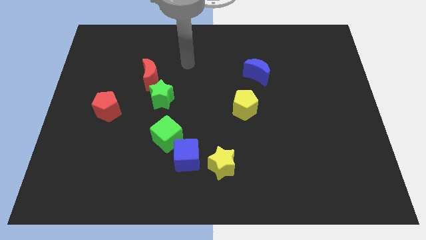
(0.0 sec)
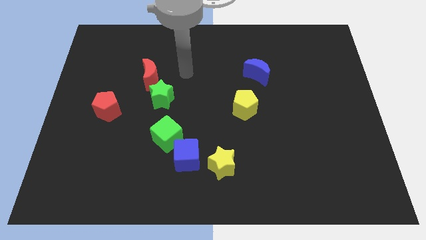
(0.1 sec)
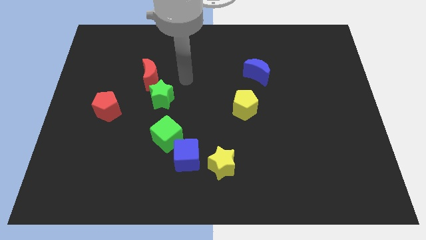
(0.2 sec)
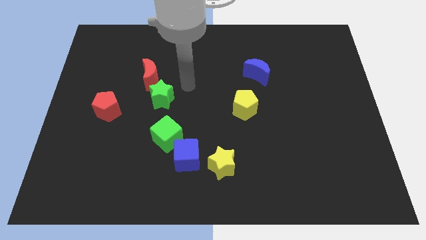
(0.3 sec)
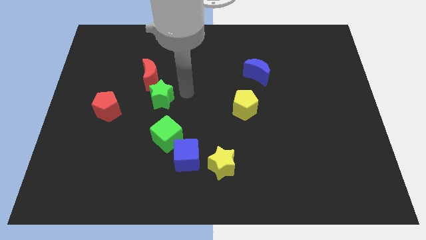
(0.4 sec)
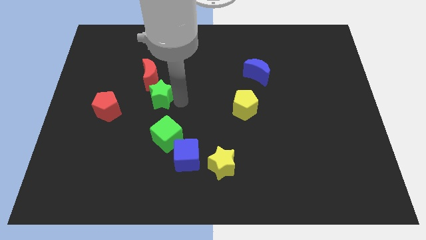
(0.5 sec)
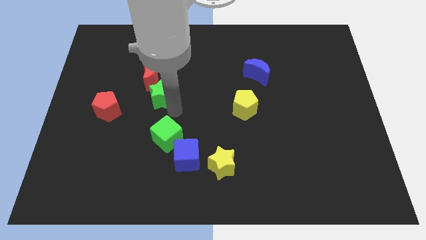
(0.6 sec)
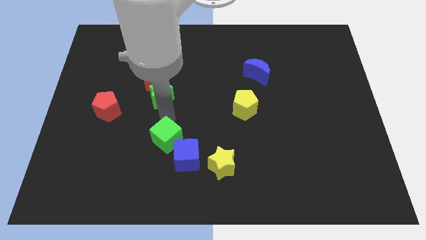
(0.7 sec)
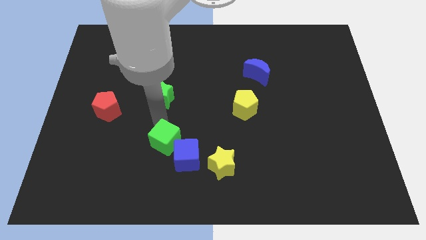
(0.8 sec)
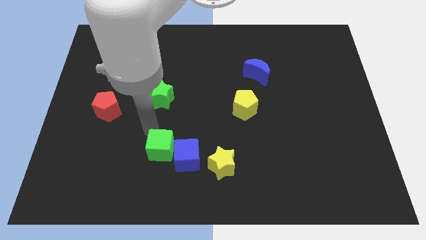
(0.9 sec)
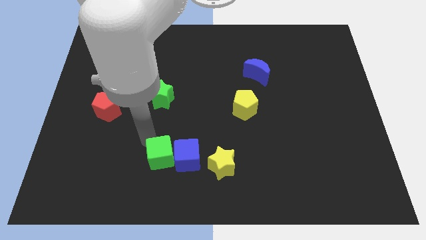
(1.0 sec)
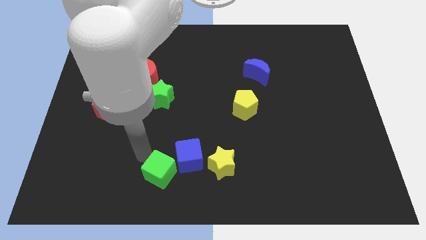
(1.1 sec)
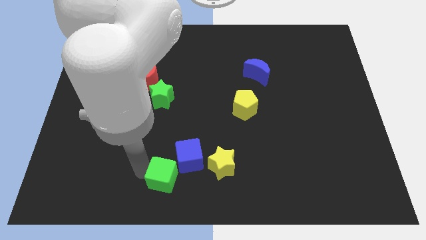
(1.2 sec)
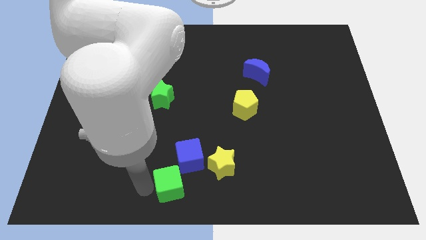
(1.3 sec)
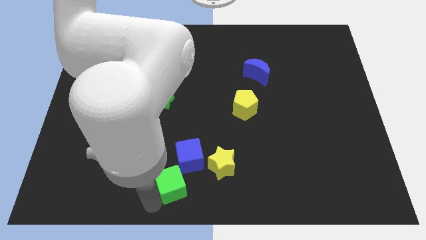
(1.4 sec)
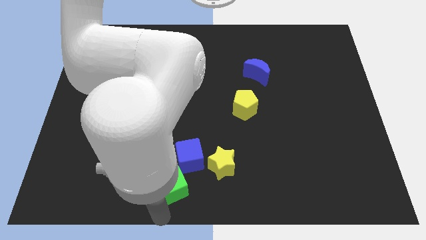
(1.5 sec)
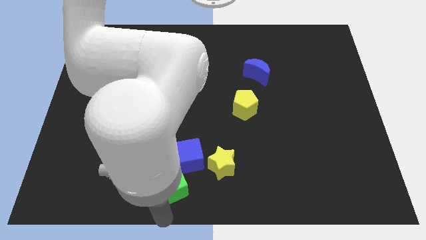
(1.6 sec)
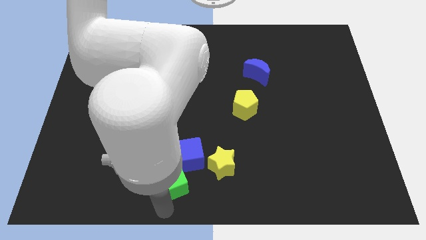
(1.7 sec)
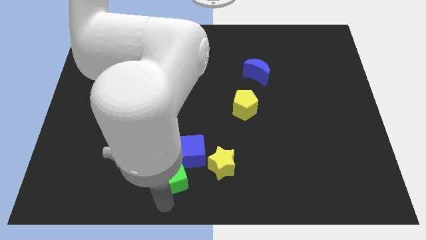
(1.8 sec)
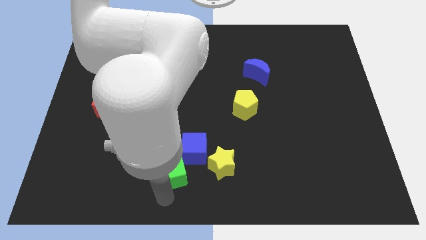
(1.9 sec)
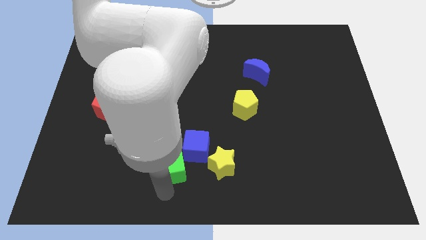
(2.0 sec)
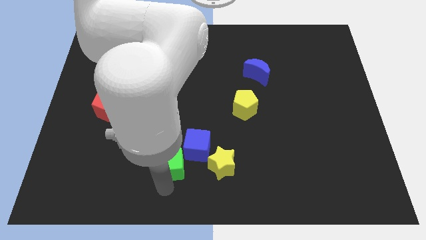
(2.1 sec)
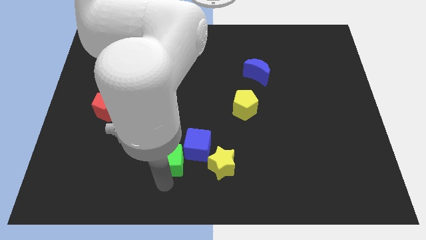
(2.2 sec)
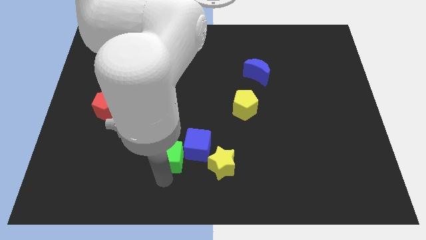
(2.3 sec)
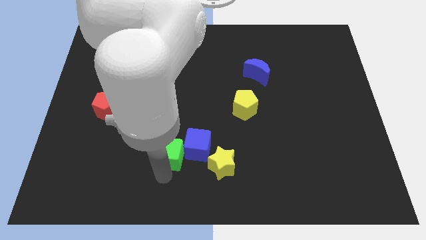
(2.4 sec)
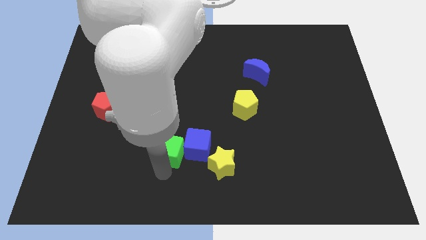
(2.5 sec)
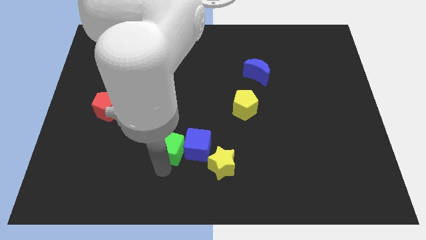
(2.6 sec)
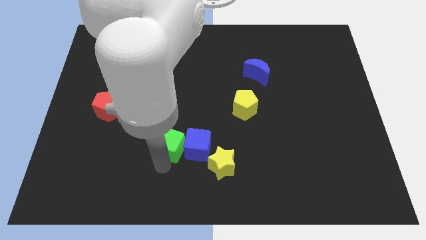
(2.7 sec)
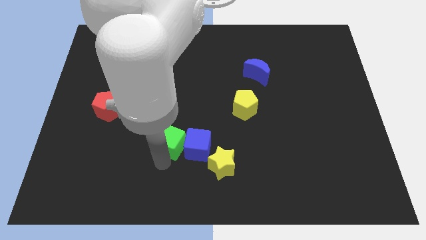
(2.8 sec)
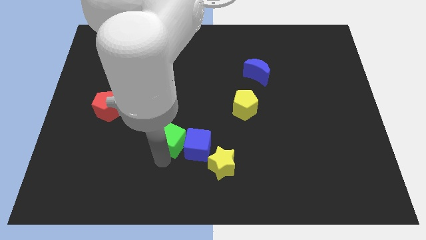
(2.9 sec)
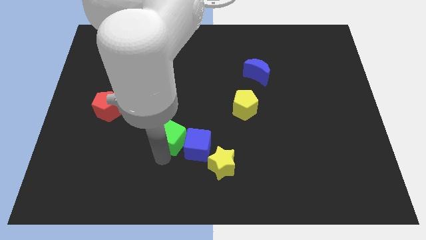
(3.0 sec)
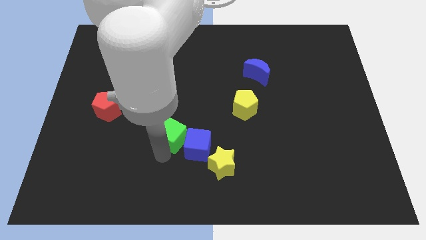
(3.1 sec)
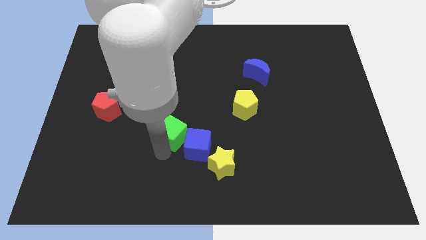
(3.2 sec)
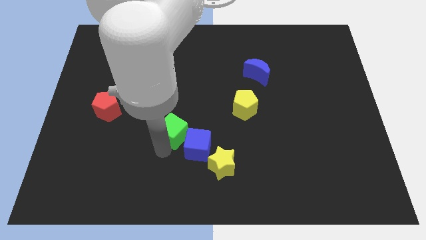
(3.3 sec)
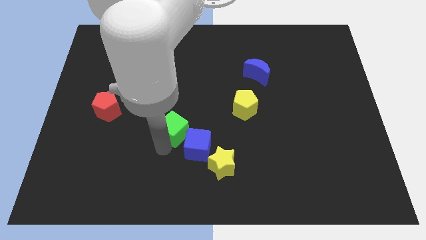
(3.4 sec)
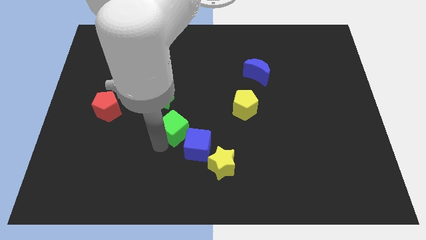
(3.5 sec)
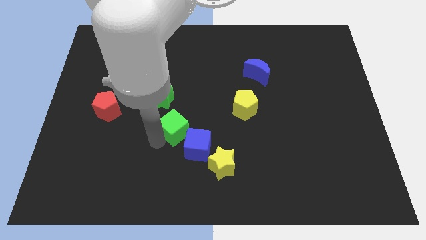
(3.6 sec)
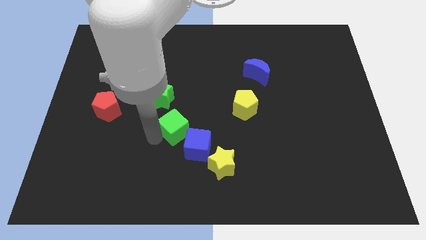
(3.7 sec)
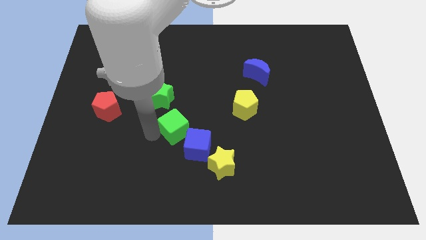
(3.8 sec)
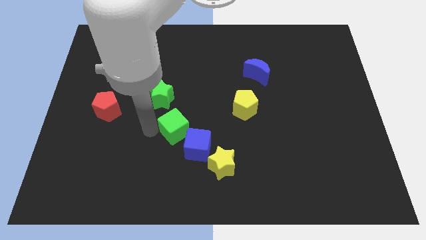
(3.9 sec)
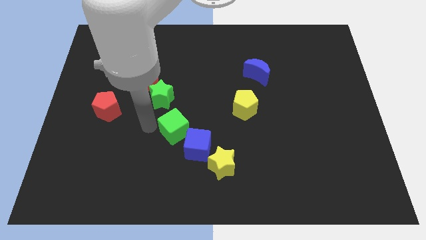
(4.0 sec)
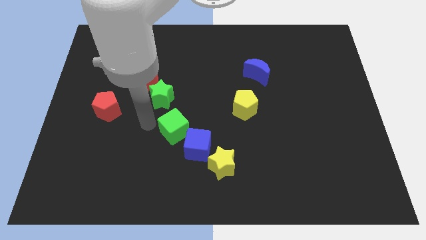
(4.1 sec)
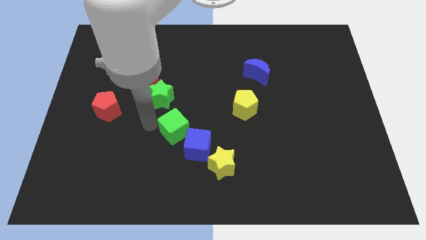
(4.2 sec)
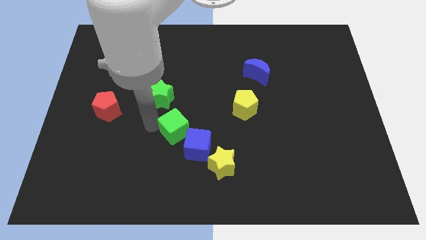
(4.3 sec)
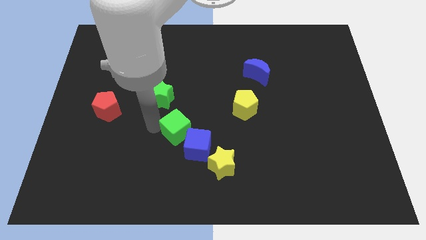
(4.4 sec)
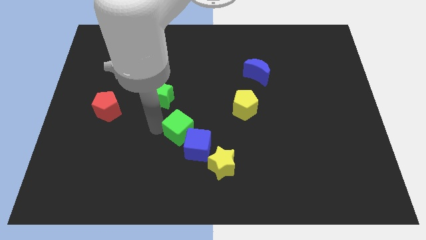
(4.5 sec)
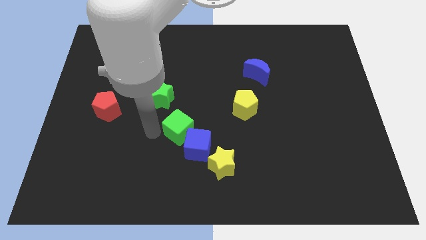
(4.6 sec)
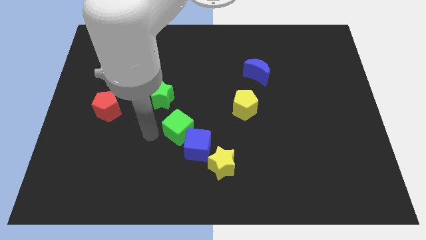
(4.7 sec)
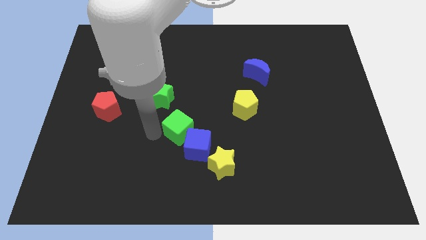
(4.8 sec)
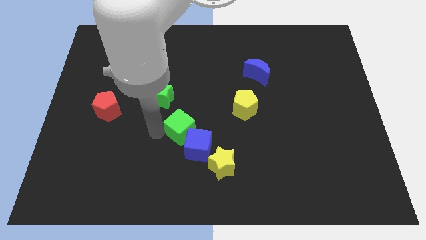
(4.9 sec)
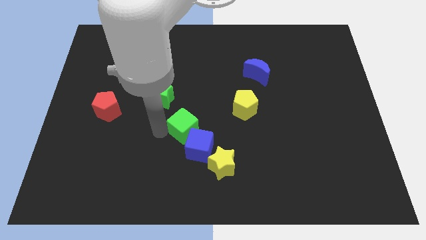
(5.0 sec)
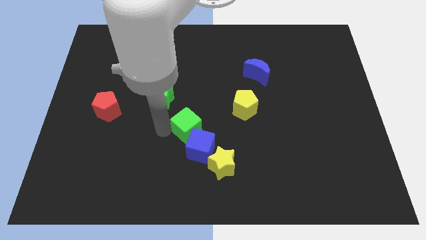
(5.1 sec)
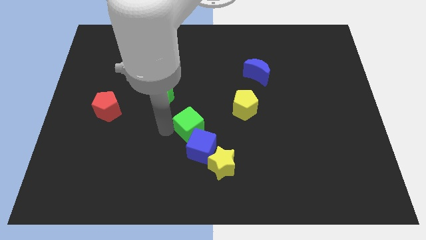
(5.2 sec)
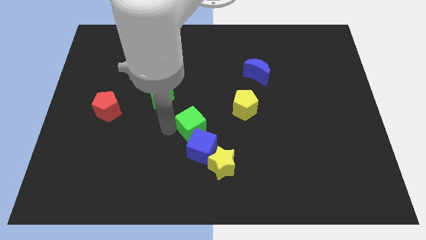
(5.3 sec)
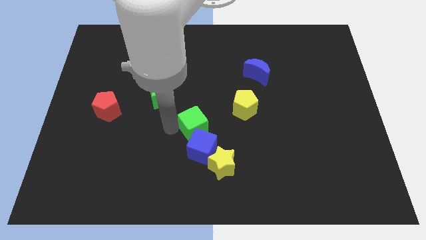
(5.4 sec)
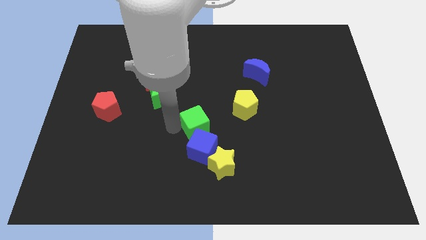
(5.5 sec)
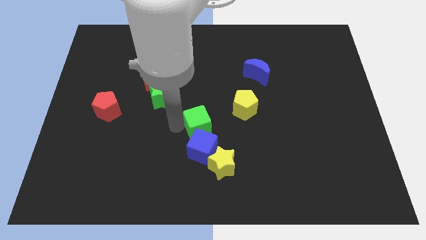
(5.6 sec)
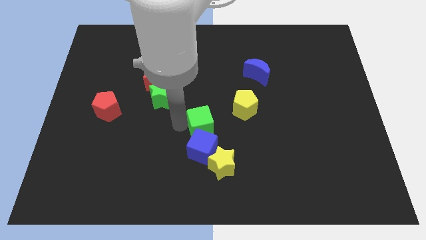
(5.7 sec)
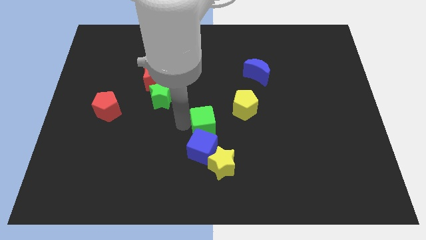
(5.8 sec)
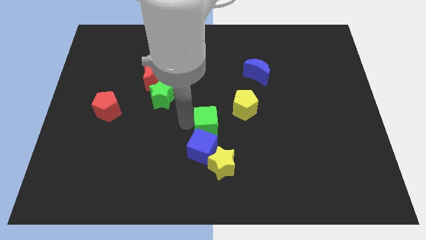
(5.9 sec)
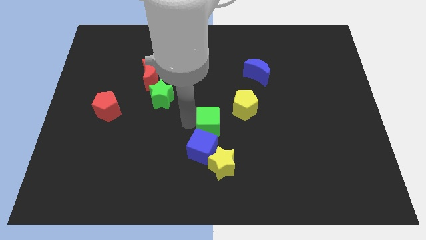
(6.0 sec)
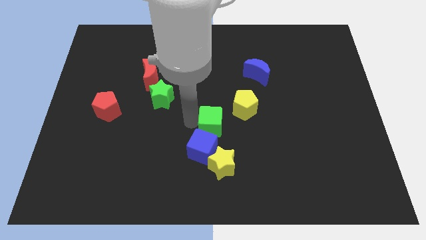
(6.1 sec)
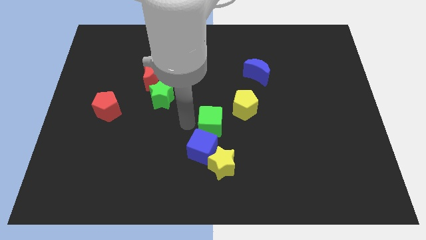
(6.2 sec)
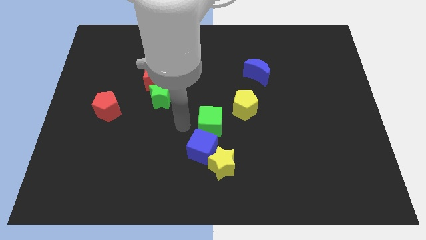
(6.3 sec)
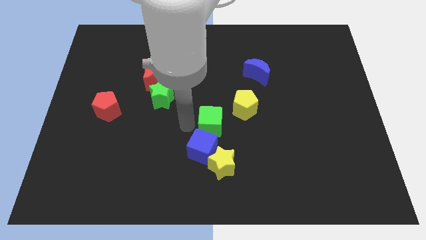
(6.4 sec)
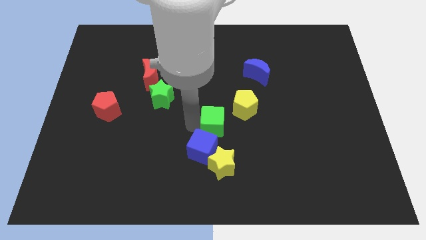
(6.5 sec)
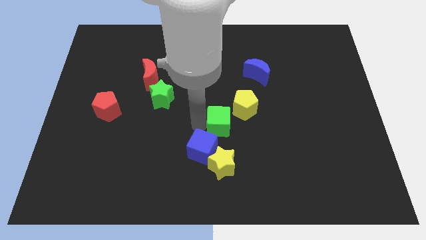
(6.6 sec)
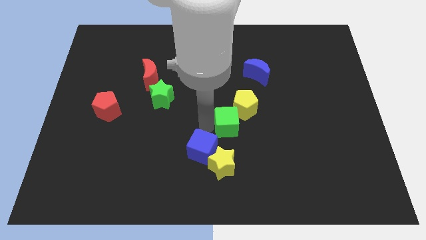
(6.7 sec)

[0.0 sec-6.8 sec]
slide the green cube to the yellow pentagon

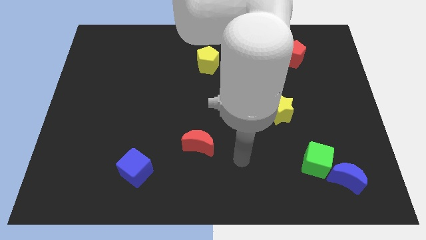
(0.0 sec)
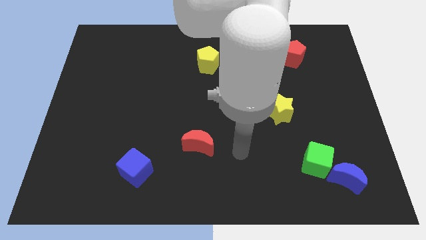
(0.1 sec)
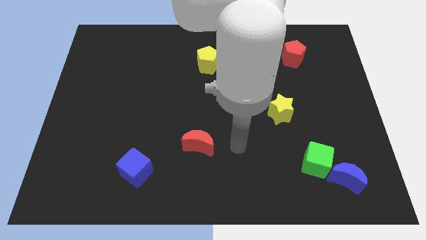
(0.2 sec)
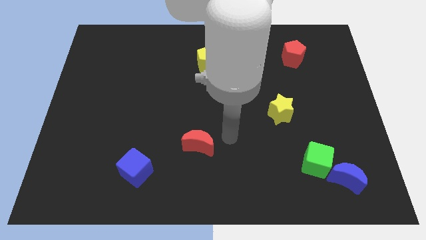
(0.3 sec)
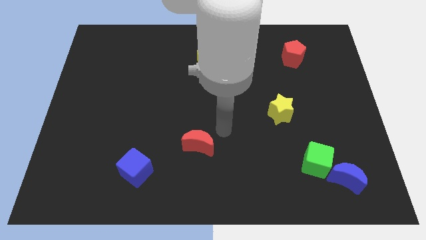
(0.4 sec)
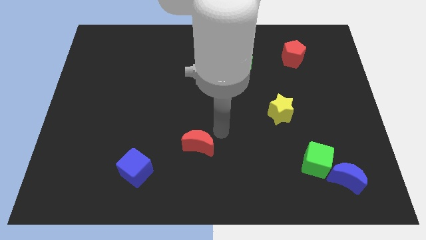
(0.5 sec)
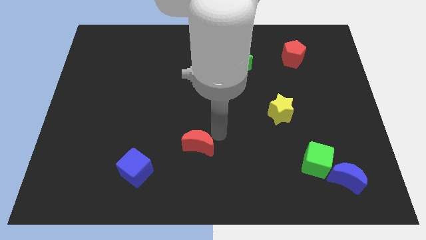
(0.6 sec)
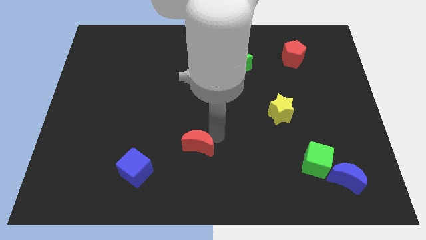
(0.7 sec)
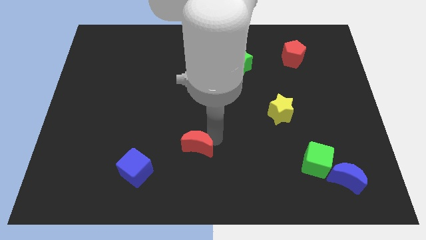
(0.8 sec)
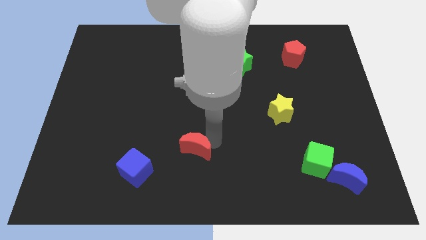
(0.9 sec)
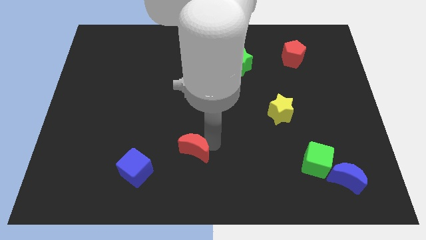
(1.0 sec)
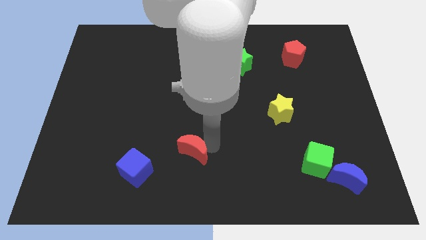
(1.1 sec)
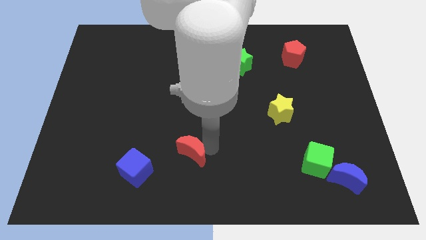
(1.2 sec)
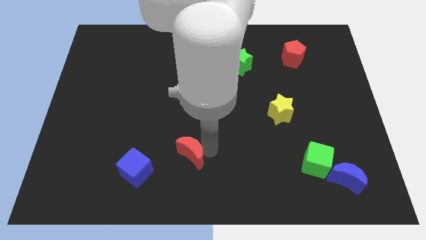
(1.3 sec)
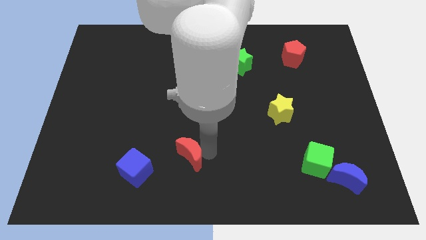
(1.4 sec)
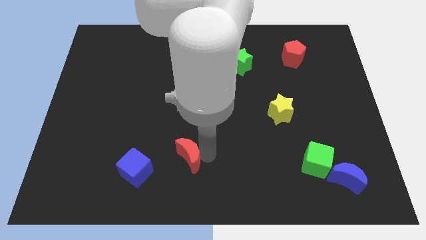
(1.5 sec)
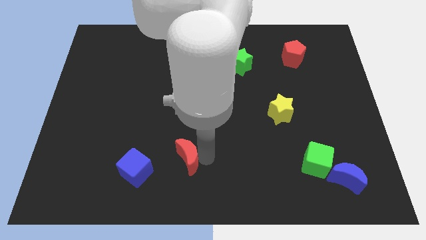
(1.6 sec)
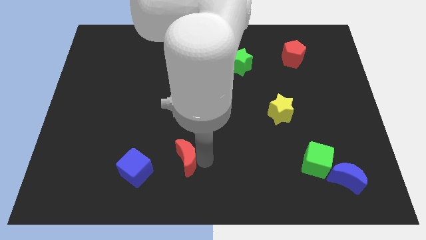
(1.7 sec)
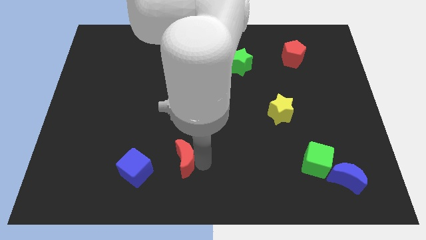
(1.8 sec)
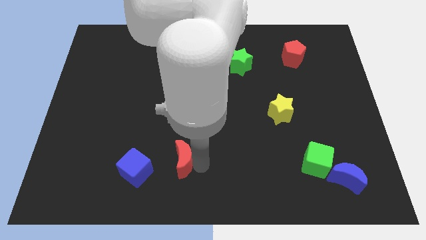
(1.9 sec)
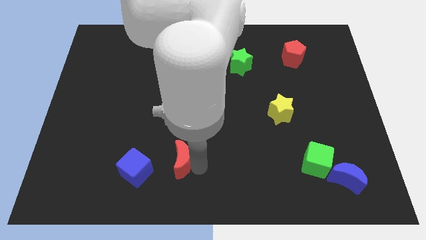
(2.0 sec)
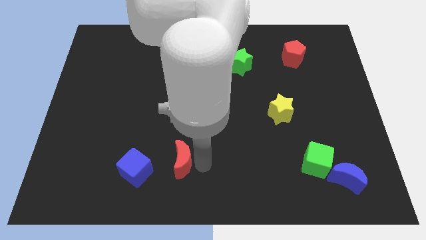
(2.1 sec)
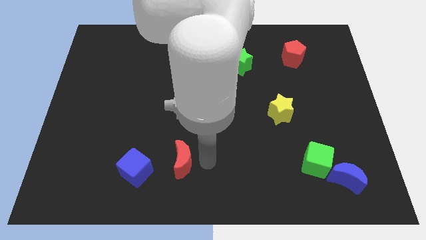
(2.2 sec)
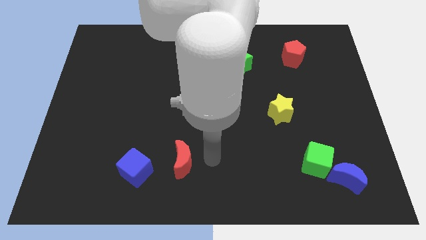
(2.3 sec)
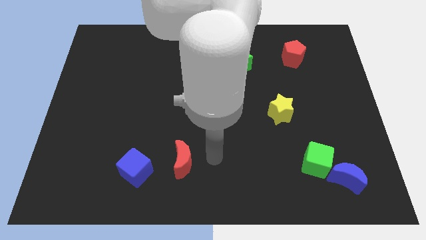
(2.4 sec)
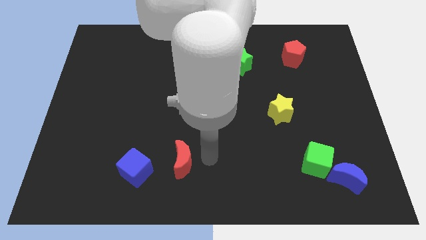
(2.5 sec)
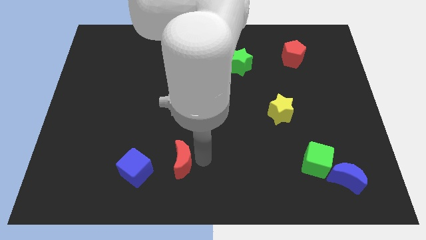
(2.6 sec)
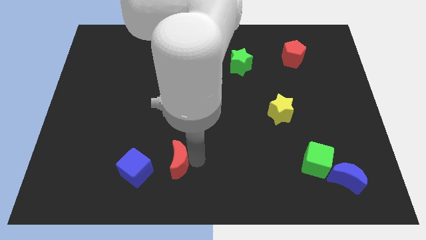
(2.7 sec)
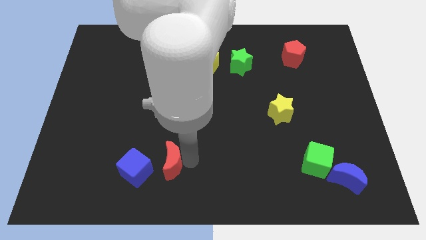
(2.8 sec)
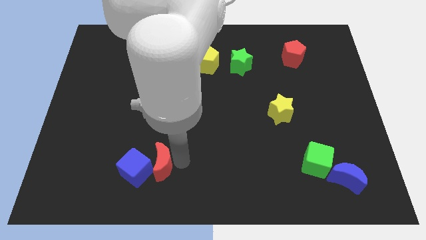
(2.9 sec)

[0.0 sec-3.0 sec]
move the red moon towards the blue cube
